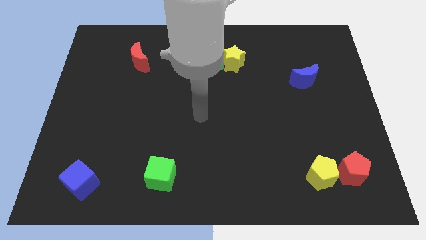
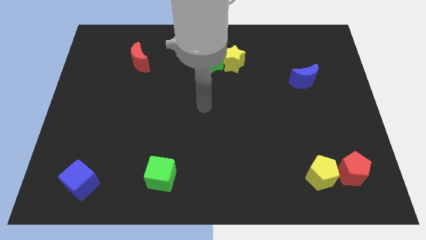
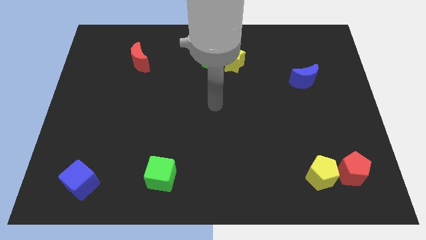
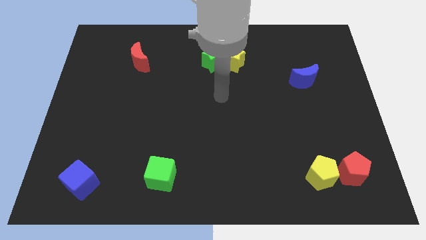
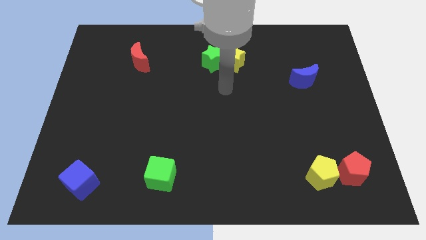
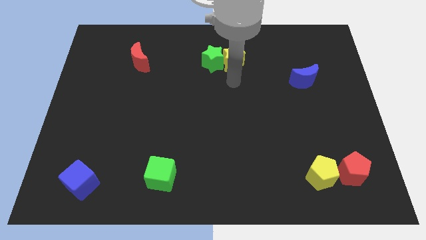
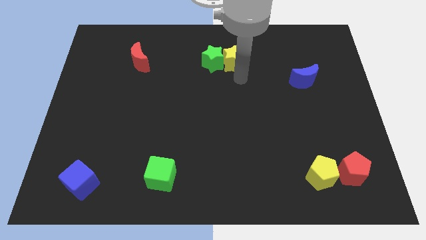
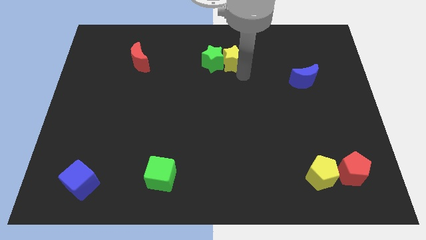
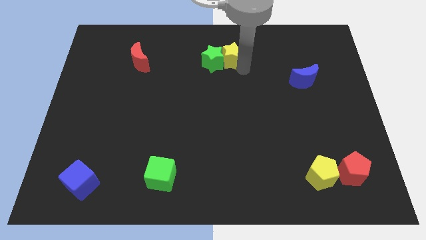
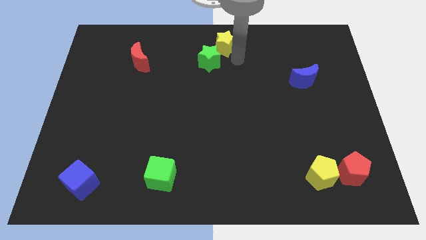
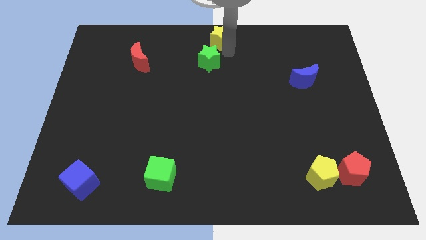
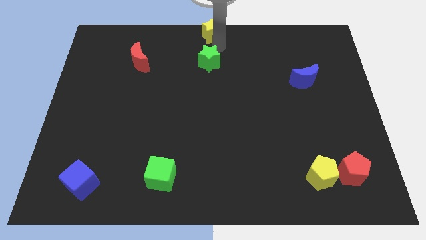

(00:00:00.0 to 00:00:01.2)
pull the green star apart from the yellow star

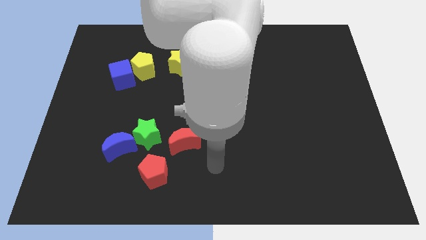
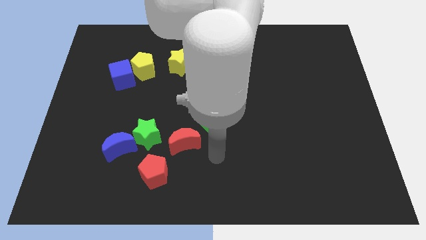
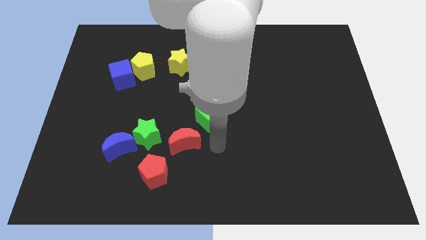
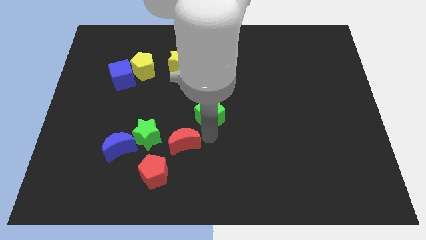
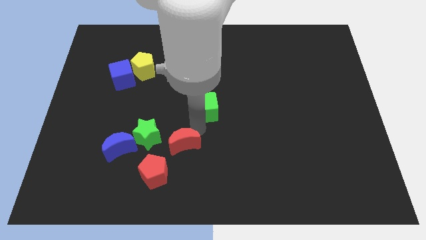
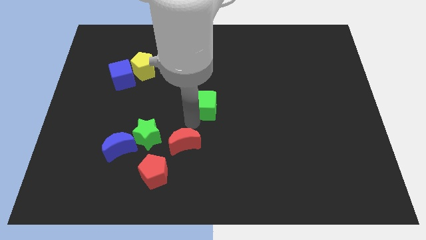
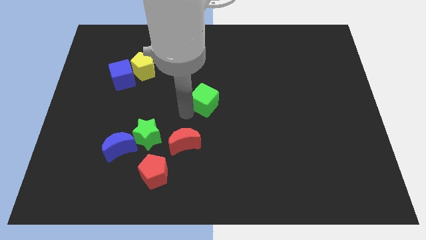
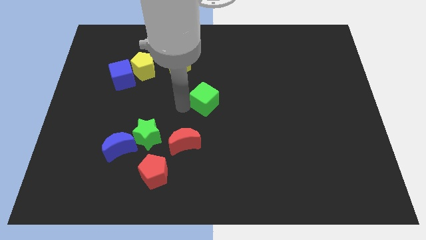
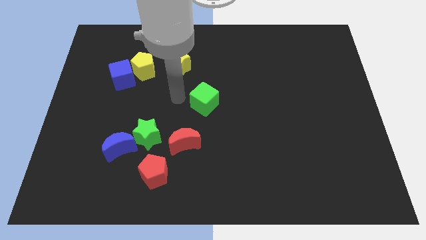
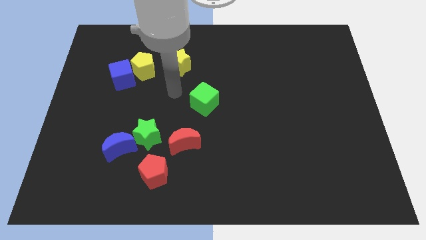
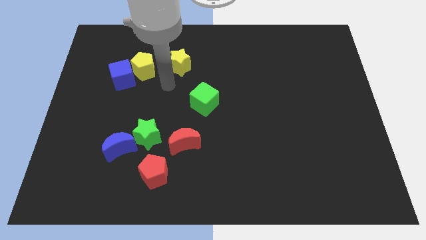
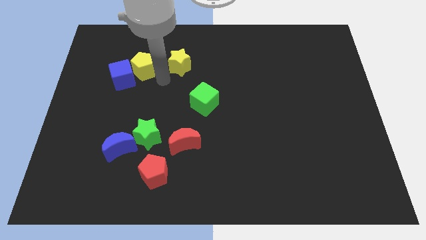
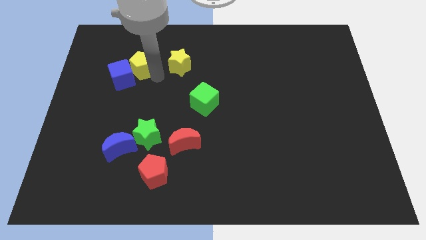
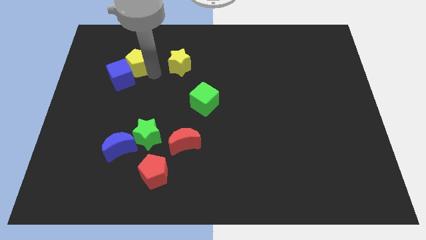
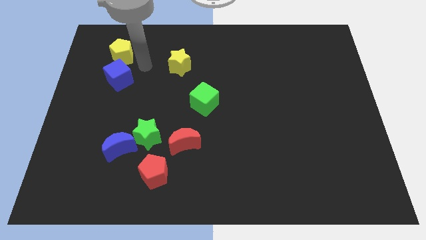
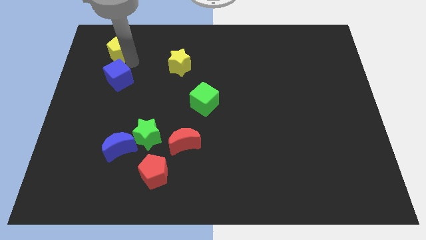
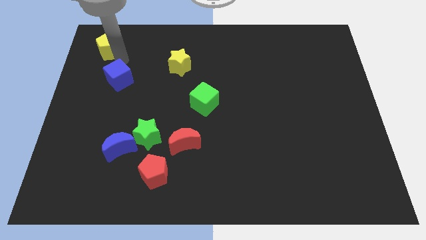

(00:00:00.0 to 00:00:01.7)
pull the blue cube apart from the yellow pentagon

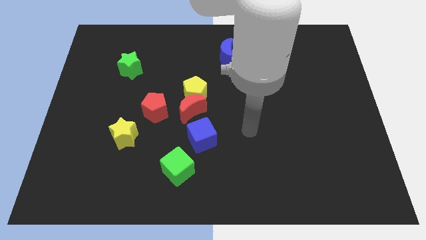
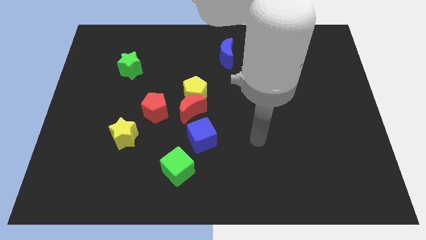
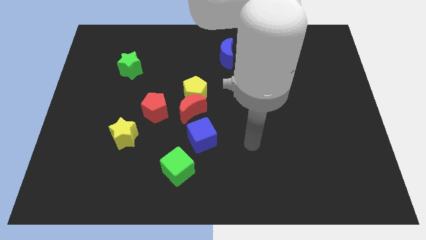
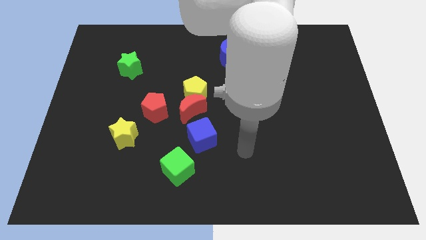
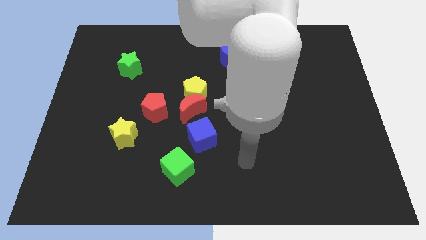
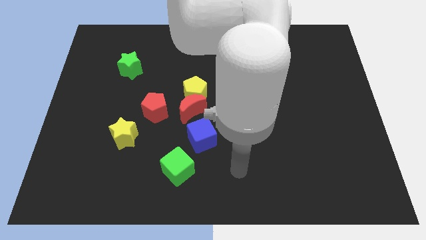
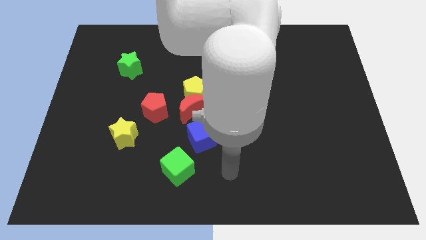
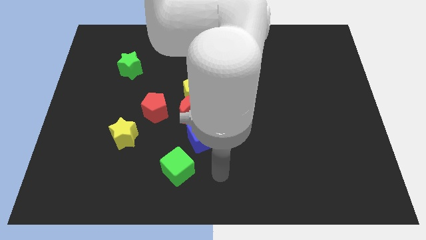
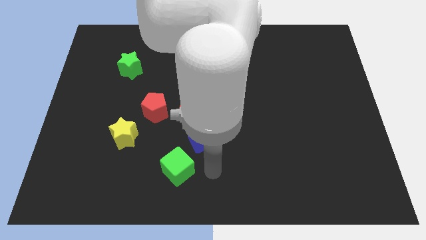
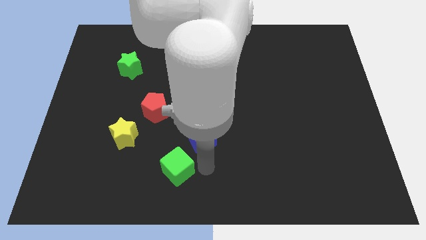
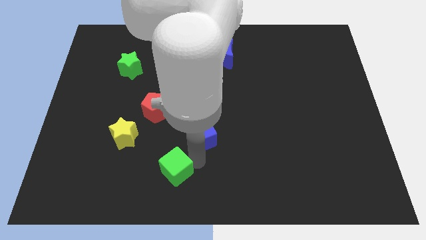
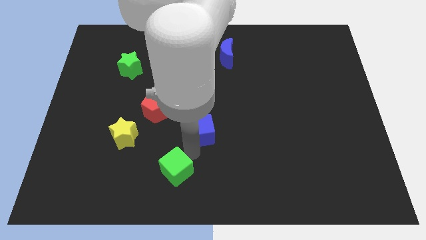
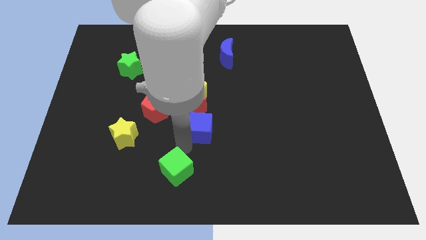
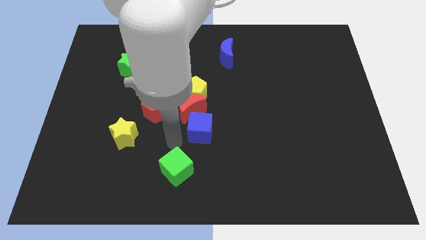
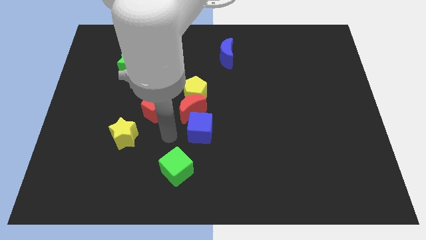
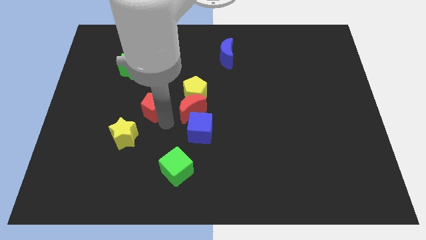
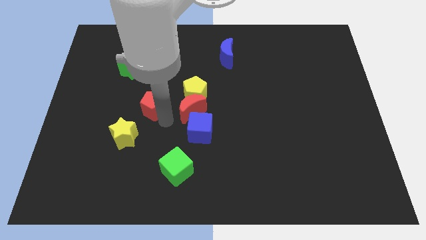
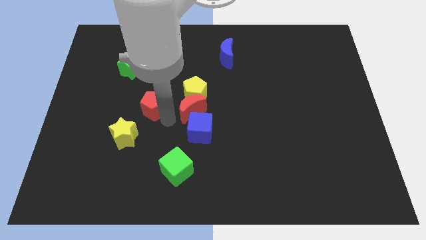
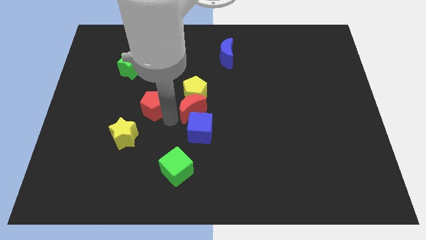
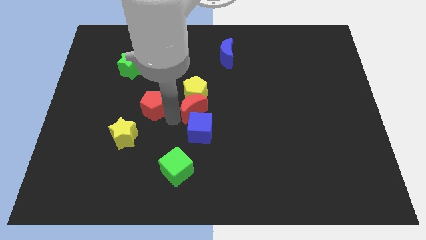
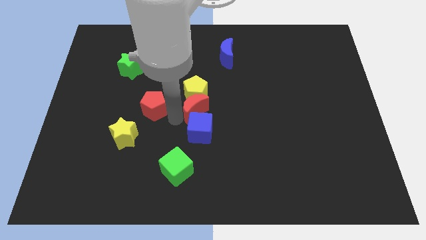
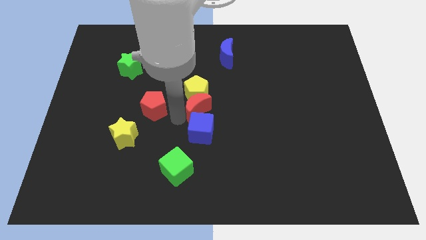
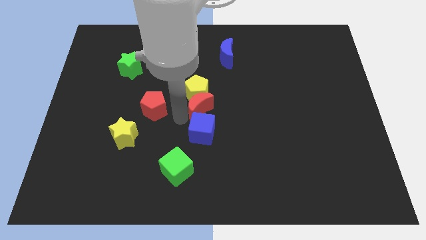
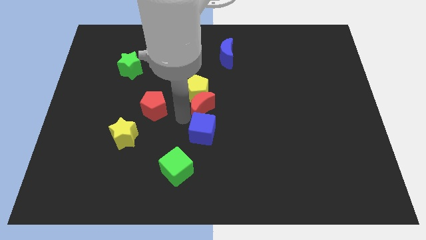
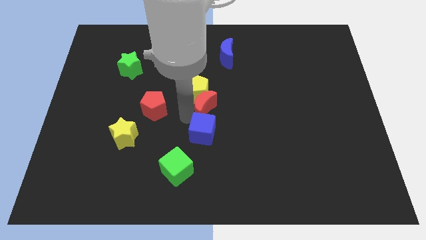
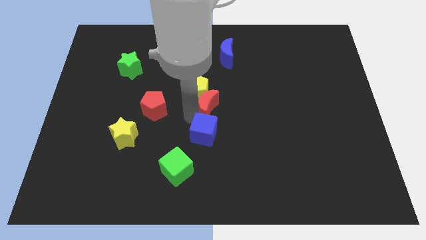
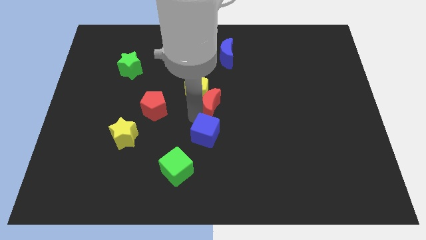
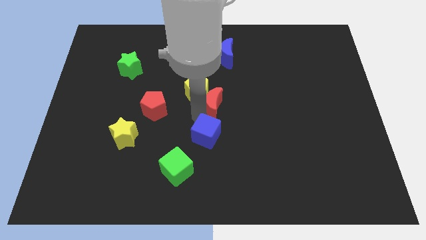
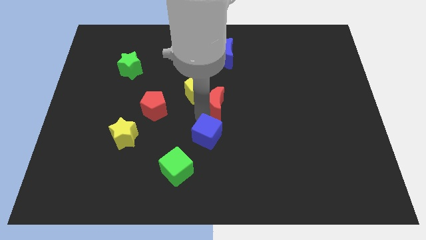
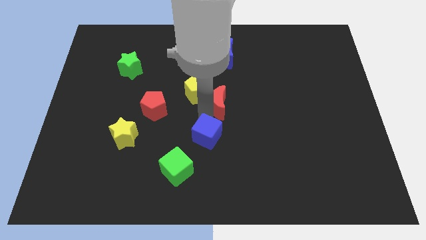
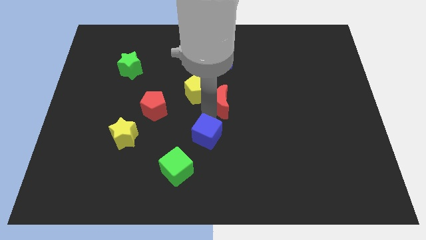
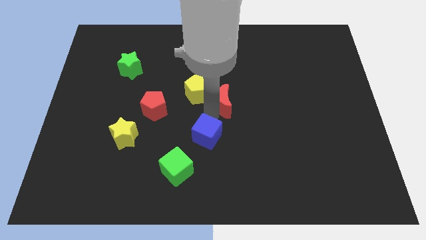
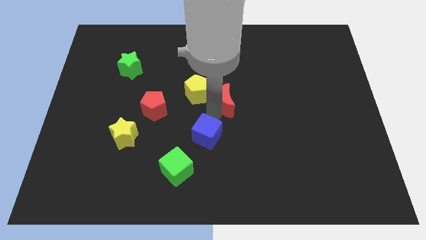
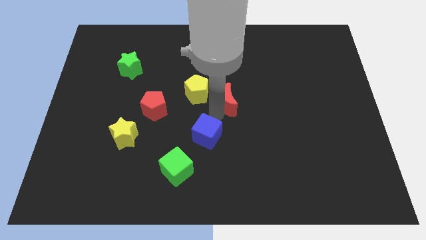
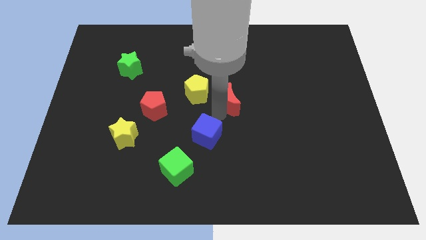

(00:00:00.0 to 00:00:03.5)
pull the red moon apart from the yellow pentagon, blue cube, and red pentagon

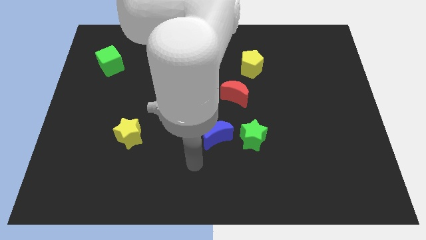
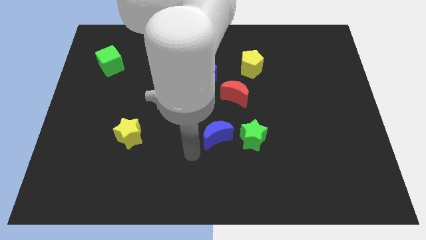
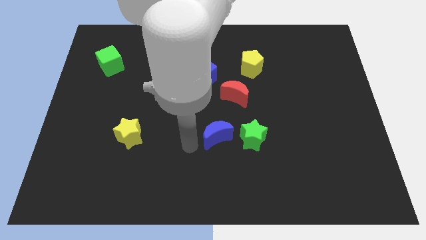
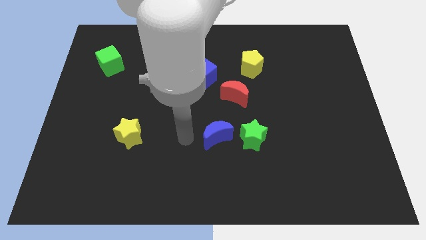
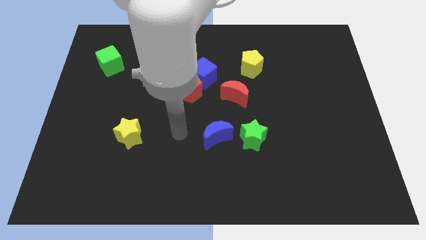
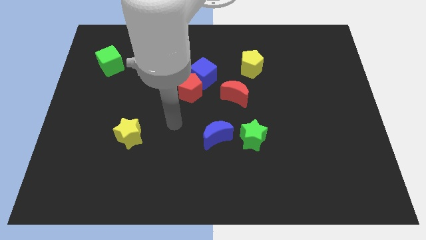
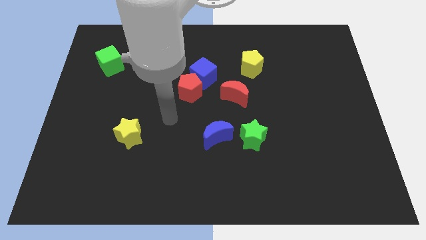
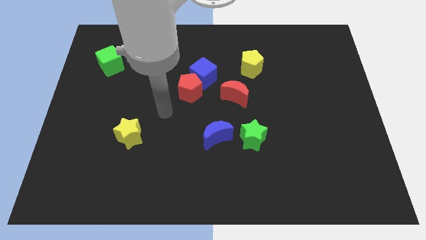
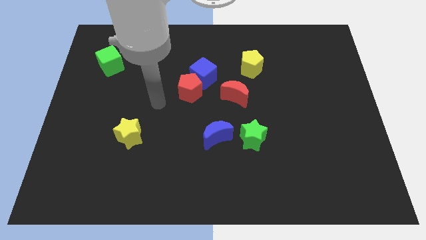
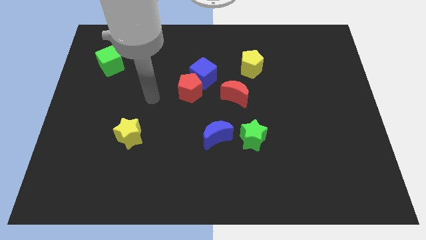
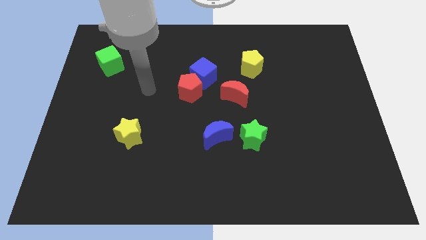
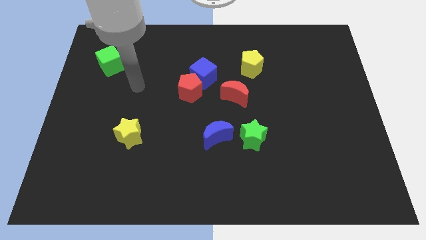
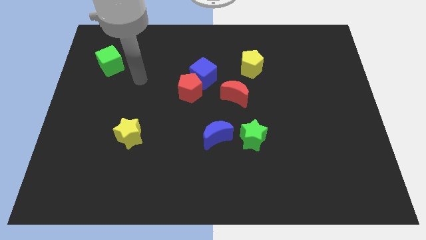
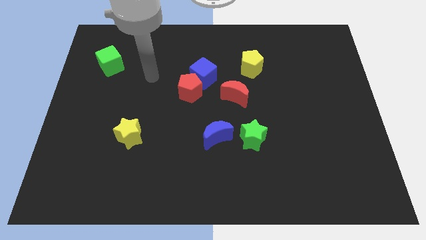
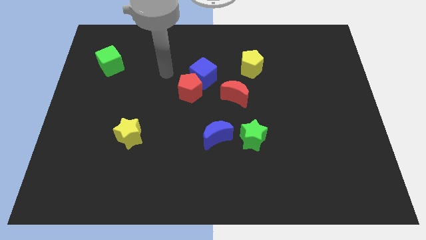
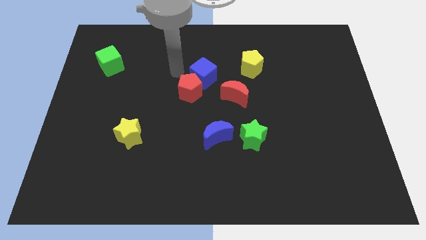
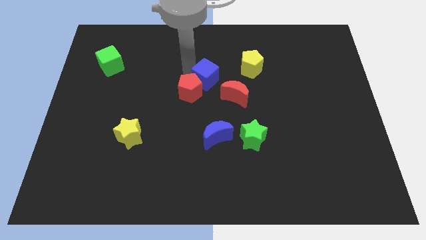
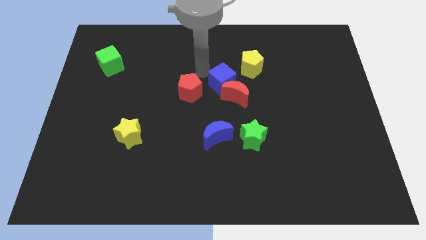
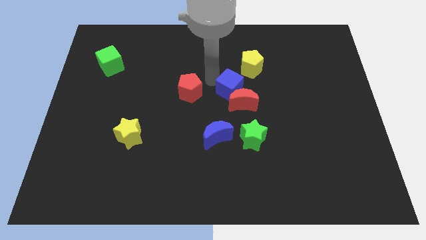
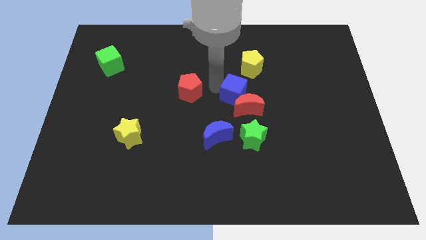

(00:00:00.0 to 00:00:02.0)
pull the red pentagon apart from the blue cube

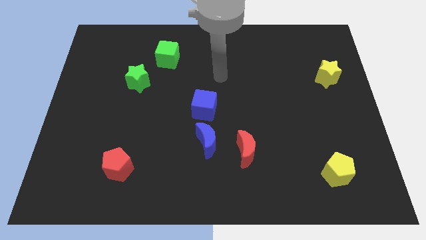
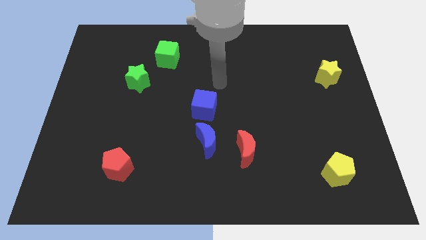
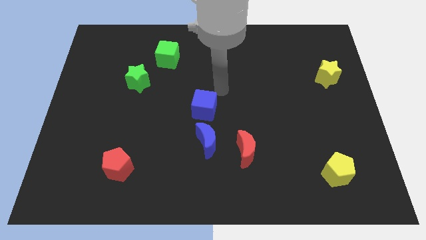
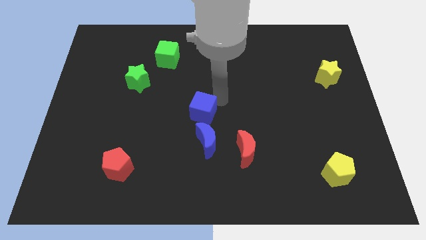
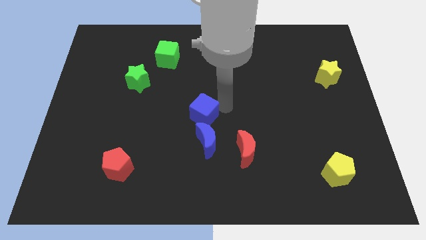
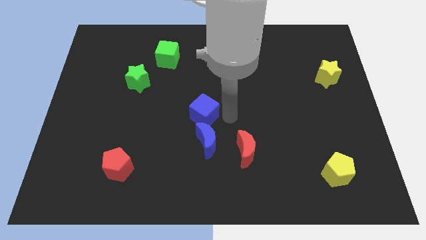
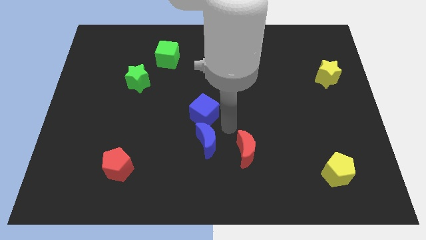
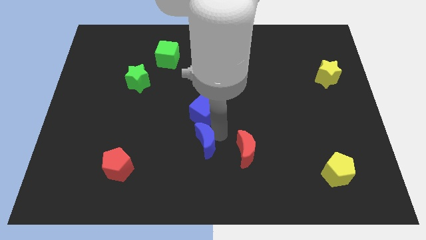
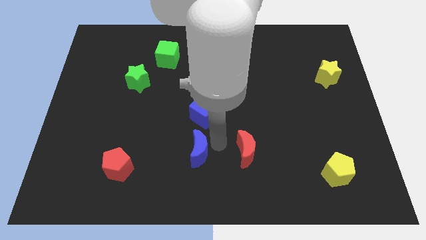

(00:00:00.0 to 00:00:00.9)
pull the red moon apart from the blue moon
